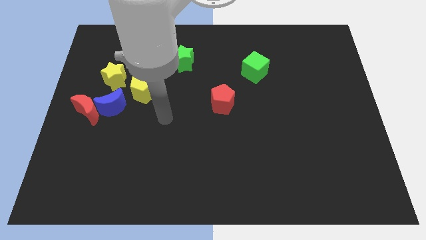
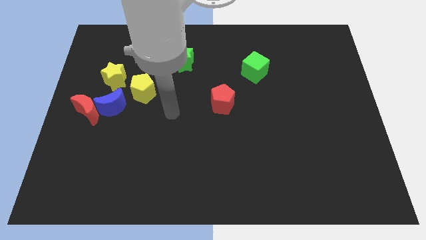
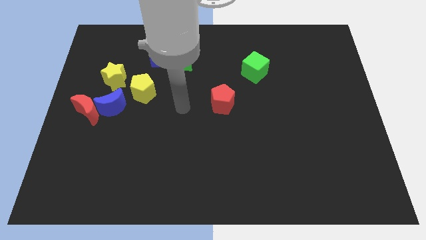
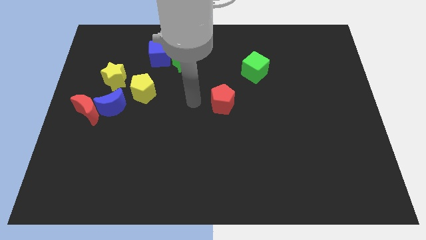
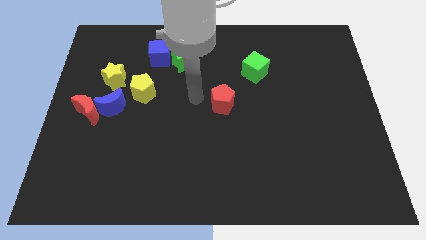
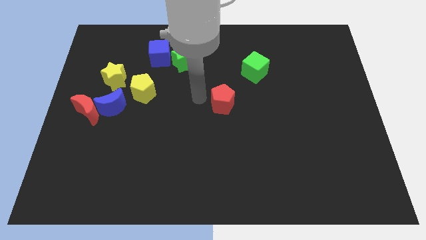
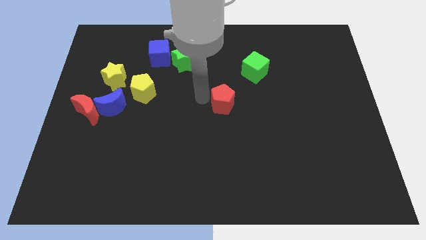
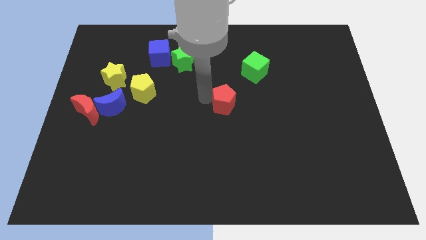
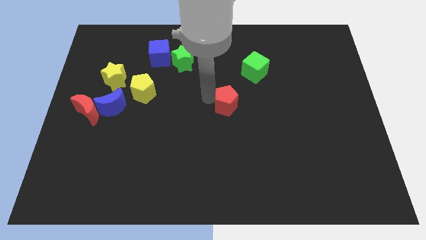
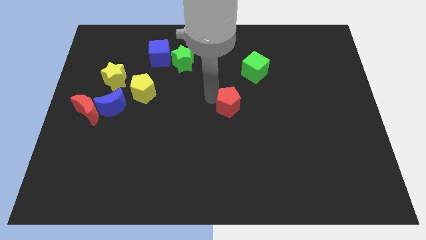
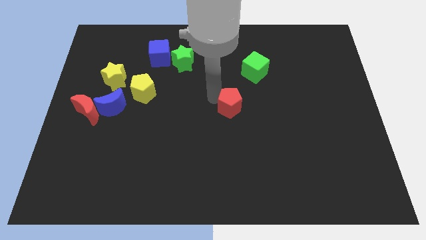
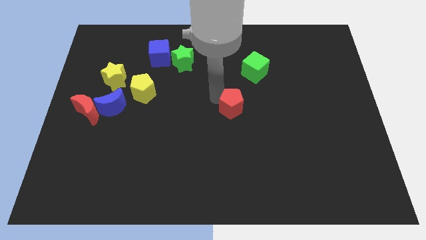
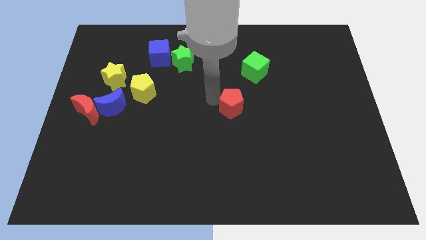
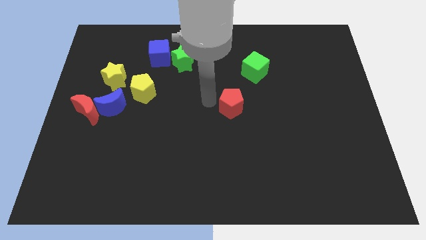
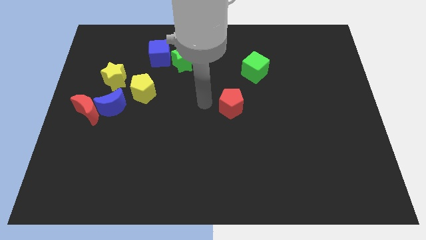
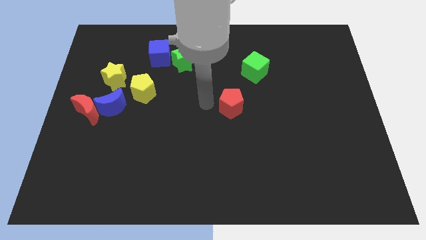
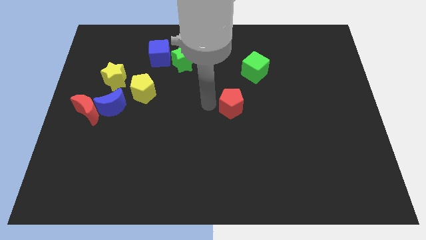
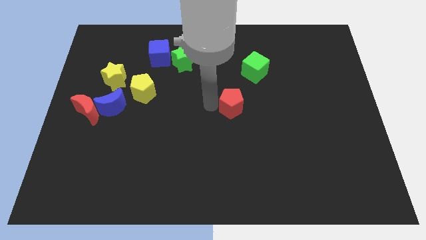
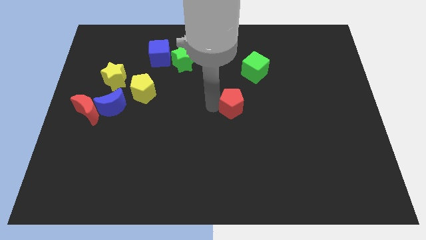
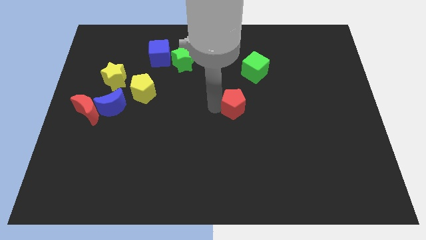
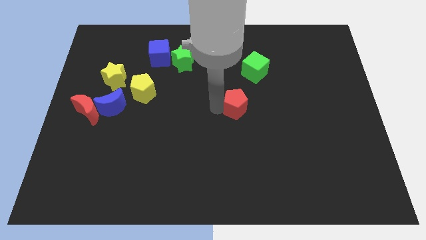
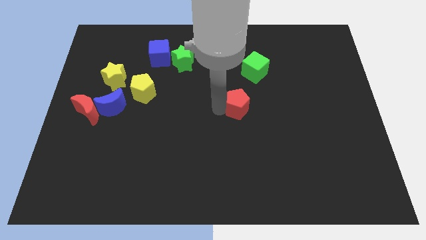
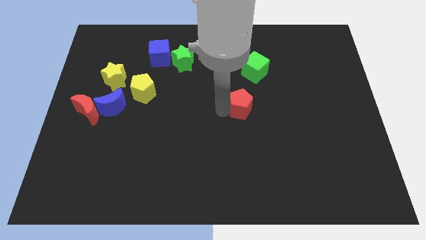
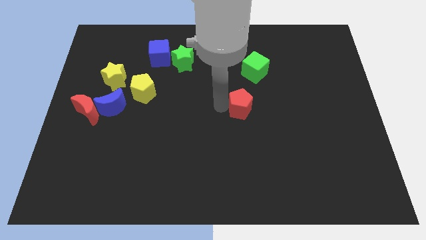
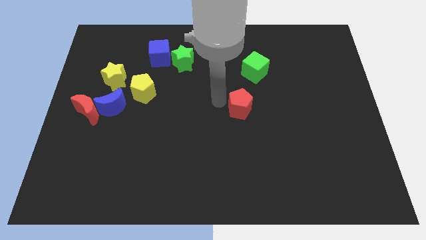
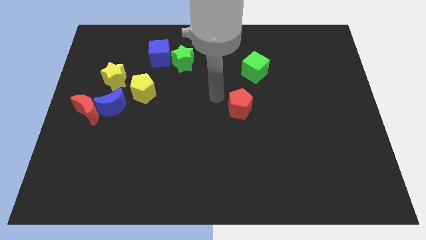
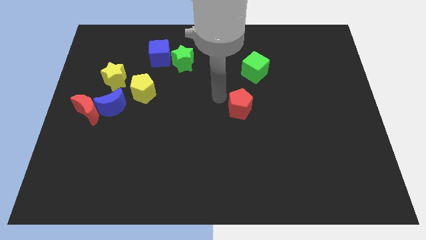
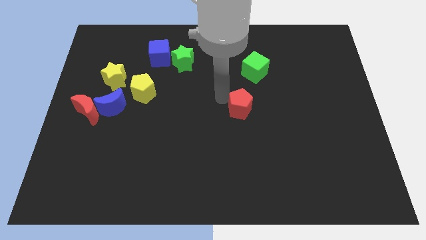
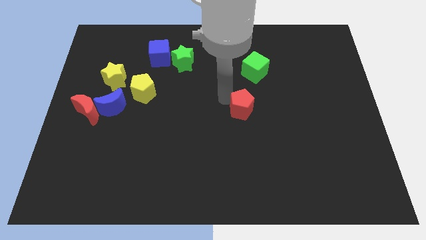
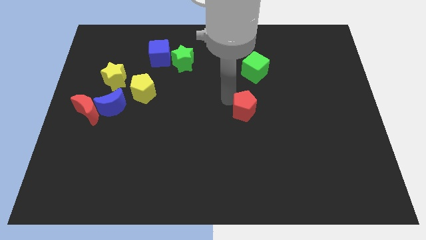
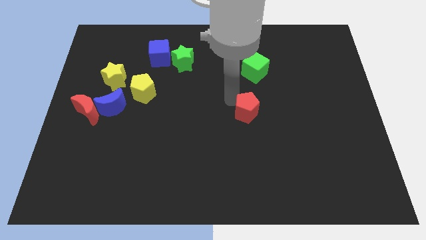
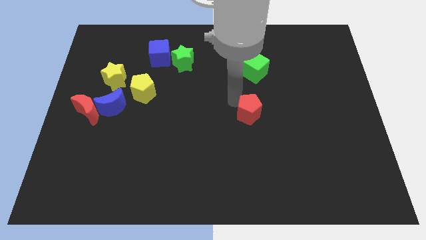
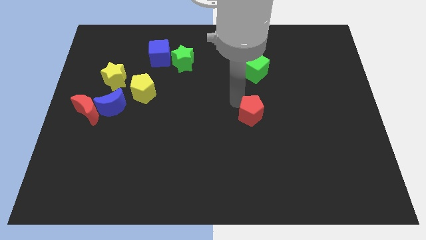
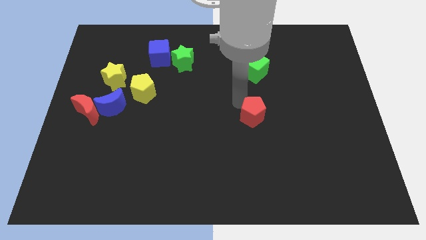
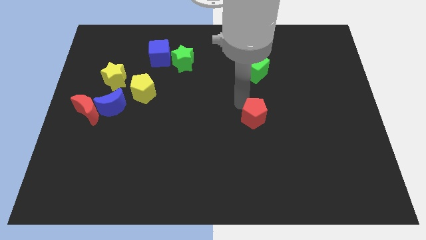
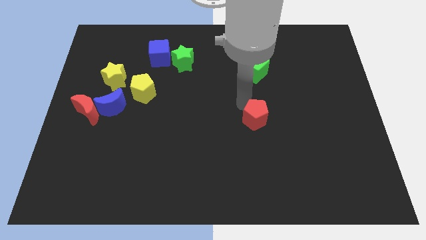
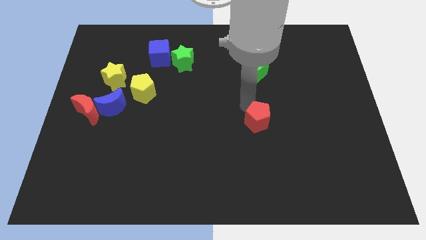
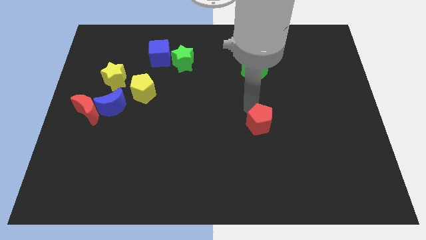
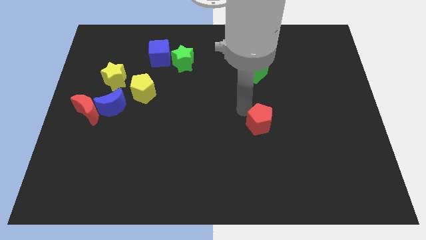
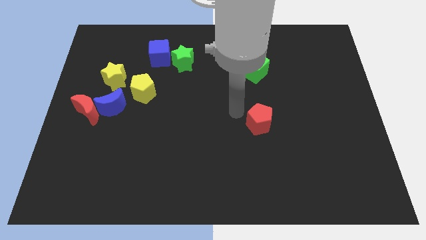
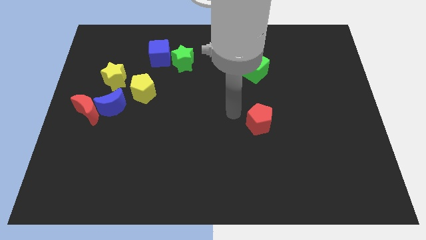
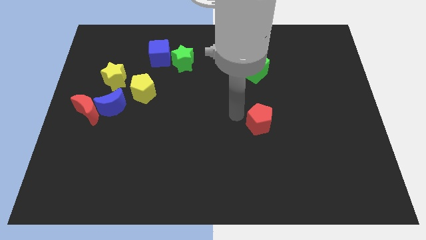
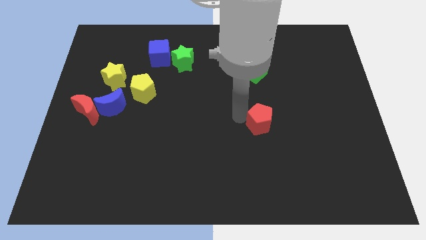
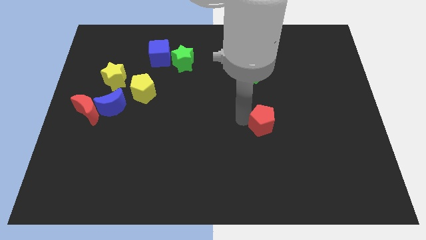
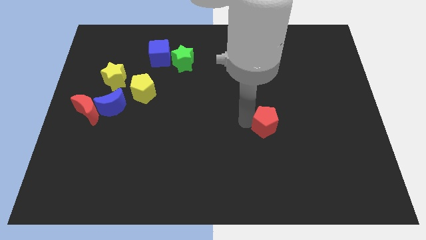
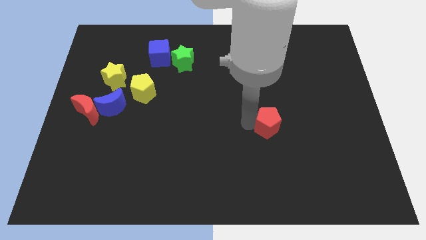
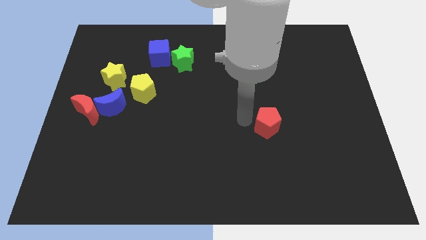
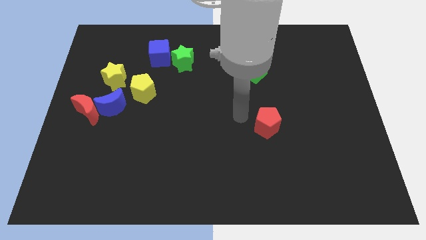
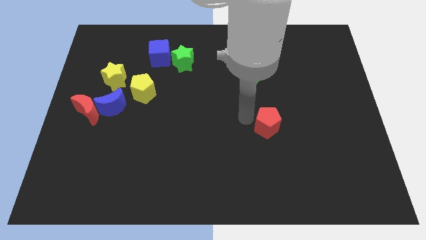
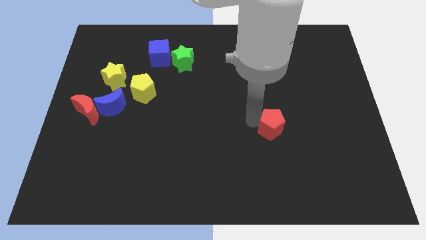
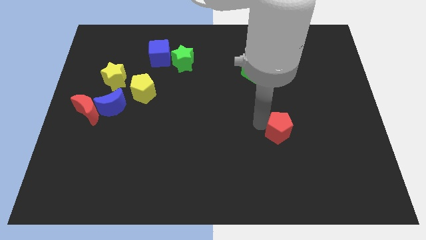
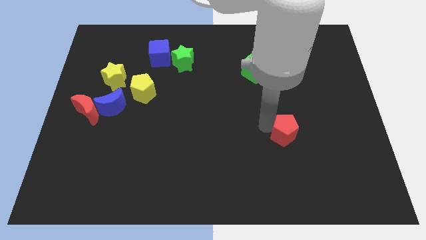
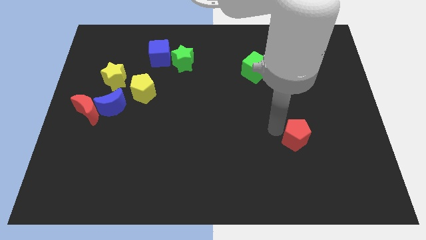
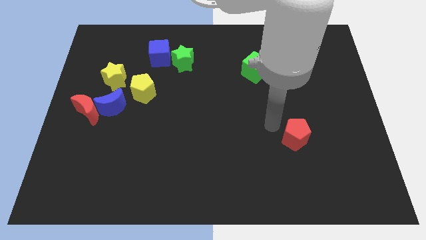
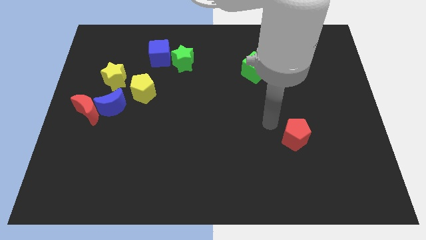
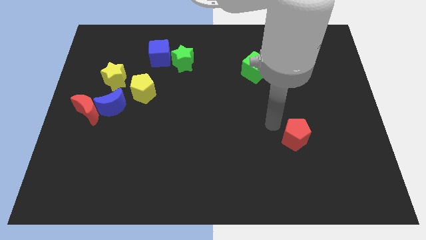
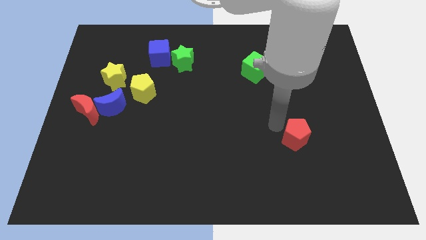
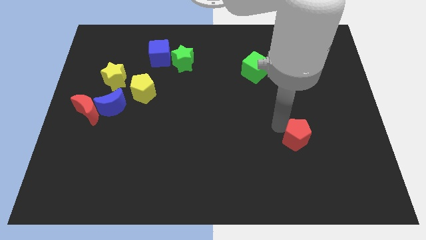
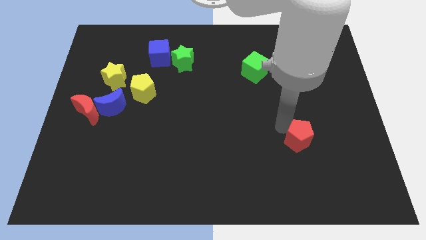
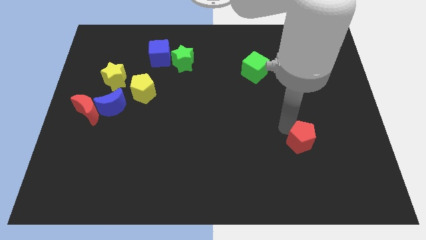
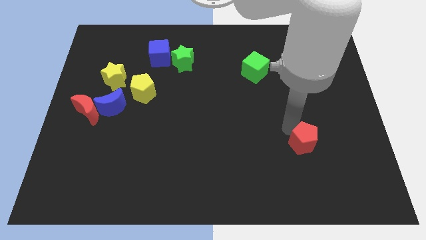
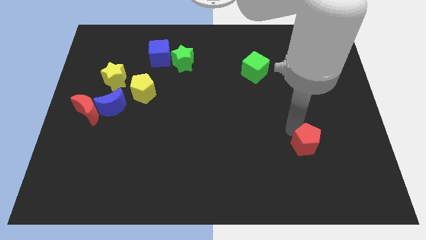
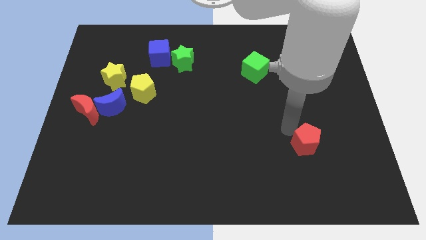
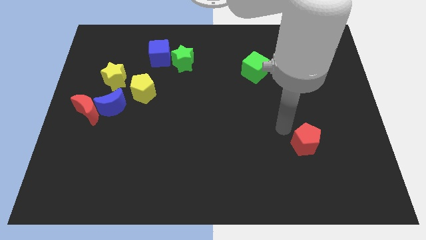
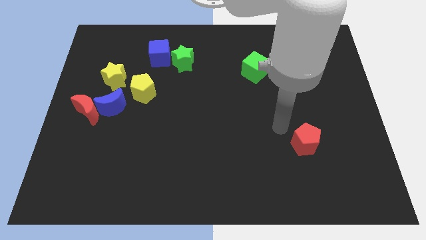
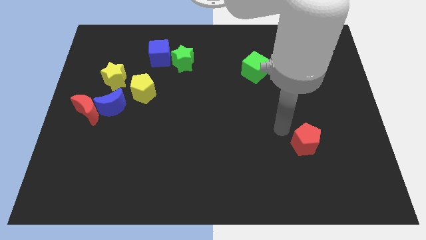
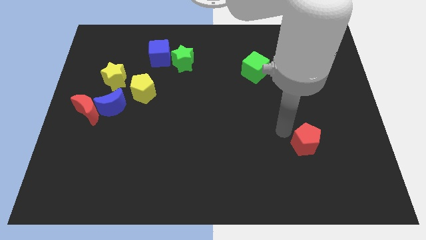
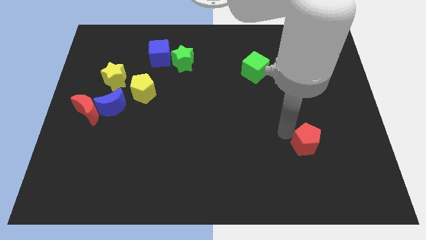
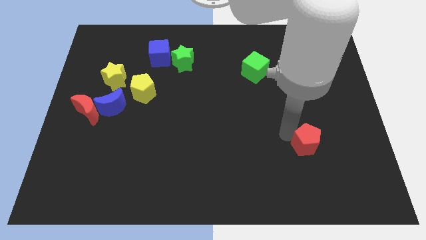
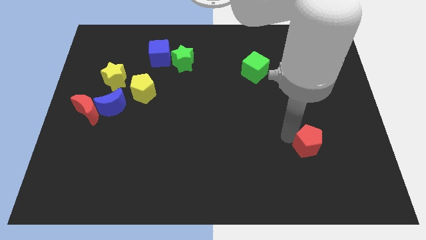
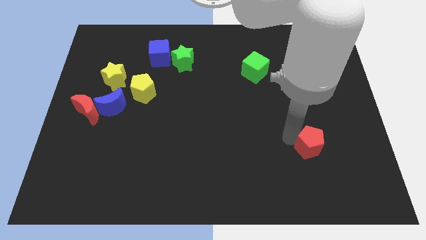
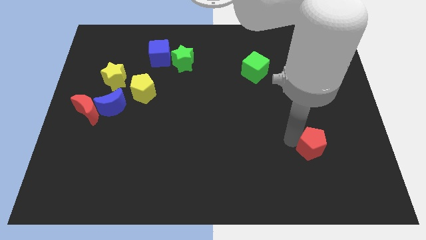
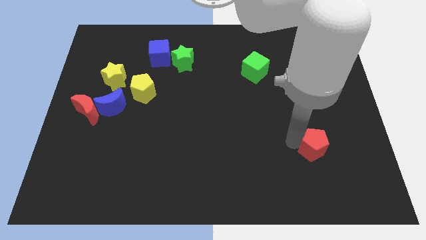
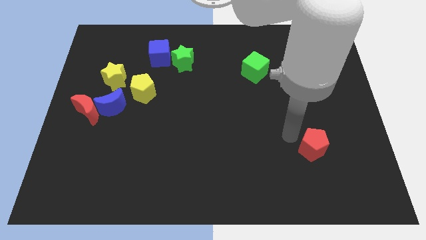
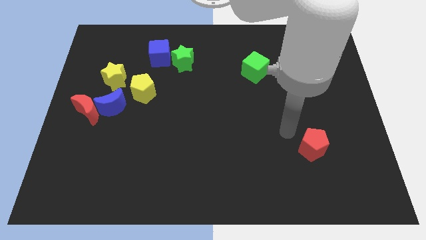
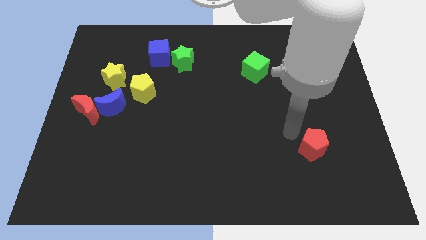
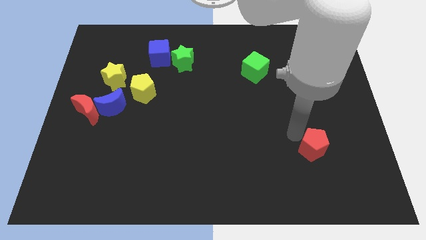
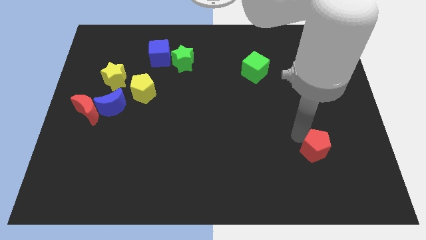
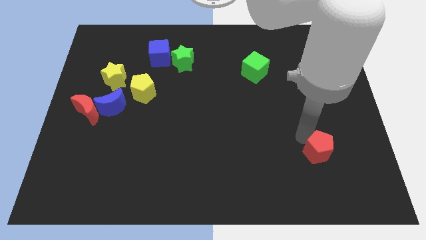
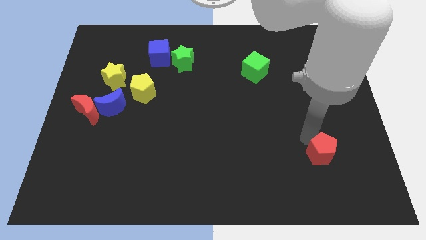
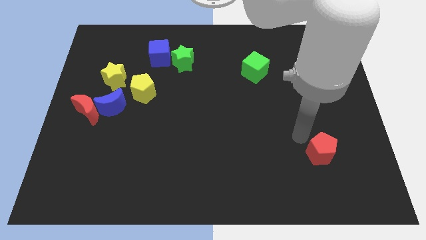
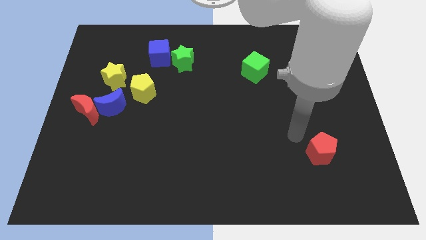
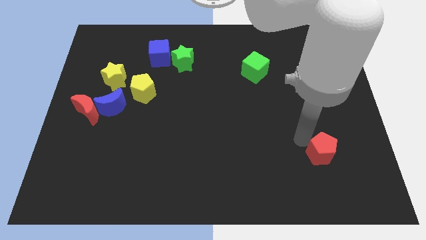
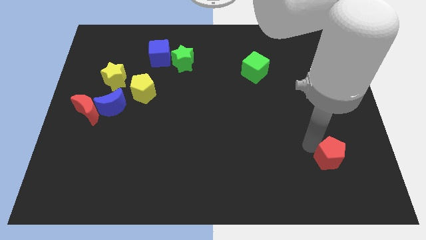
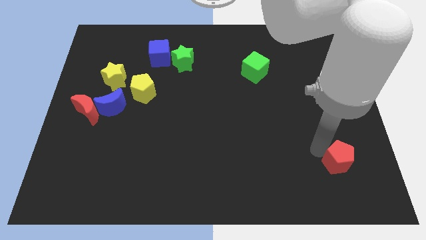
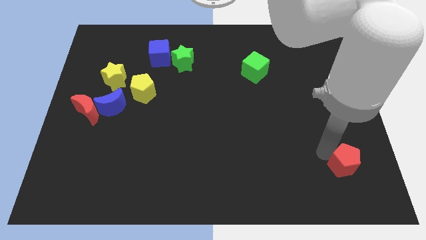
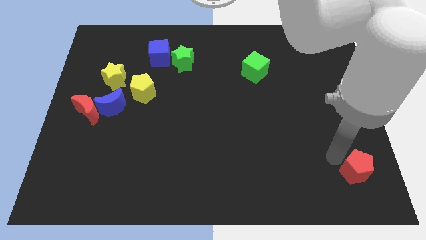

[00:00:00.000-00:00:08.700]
slide the red pentagon to the bottom right
